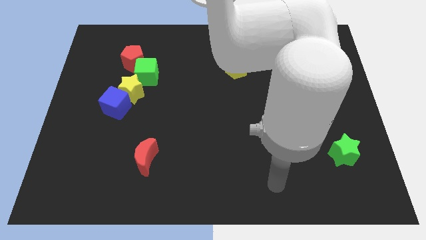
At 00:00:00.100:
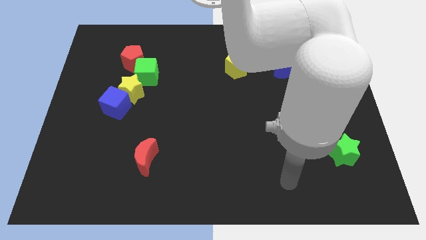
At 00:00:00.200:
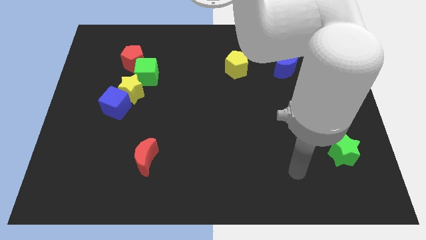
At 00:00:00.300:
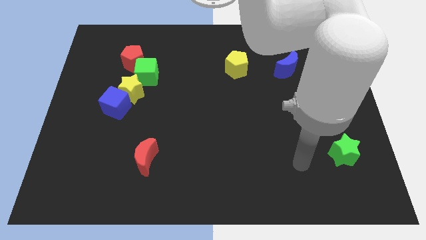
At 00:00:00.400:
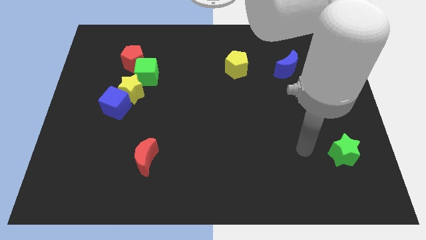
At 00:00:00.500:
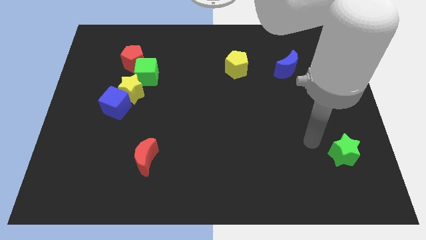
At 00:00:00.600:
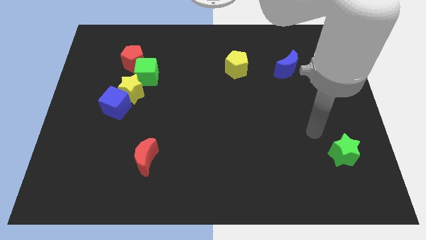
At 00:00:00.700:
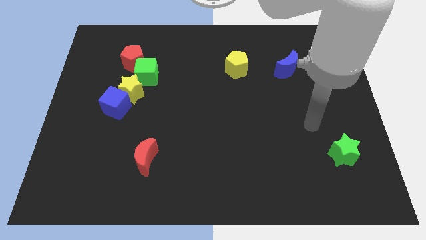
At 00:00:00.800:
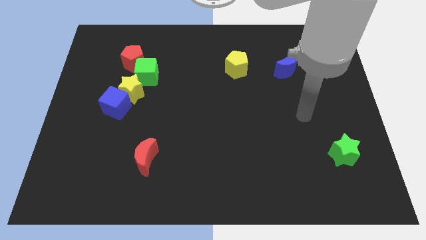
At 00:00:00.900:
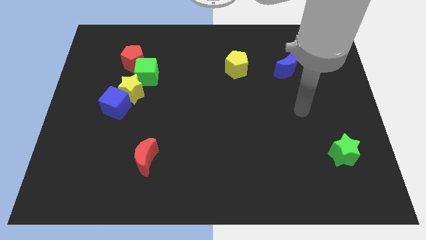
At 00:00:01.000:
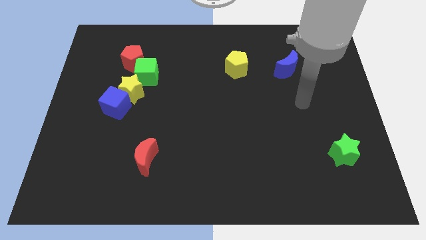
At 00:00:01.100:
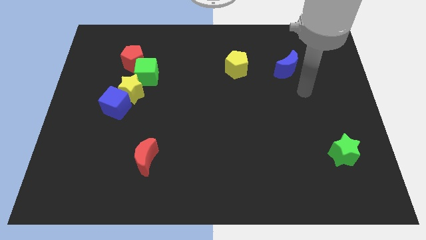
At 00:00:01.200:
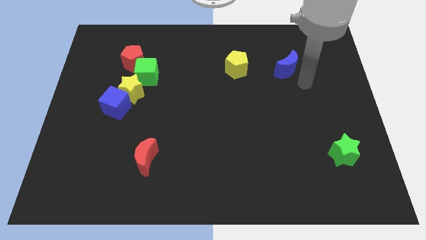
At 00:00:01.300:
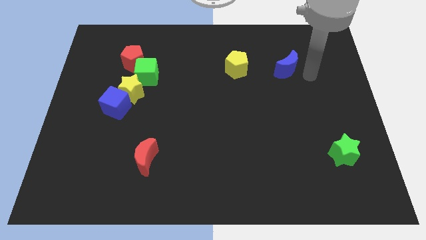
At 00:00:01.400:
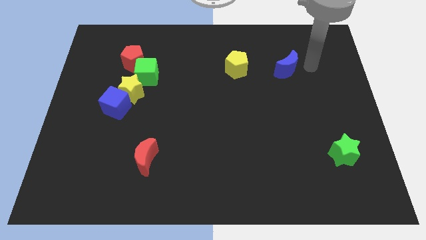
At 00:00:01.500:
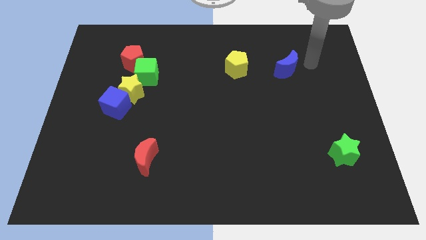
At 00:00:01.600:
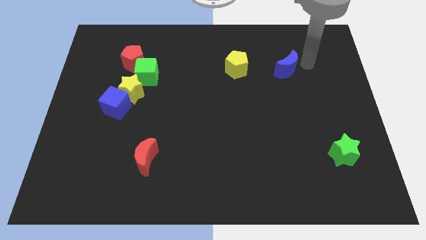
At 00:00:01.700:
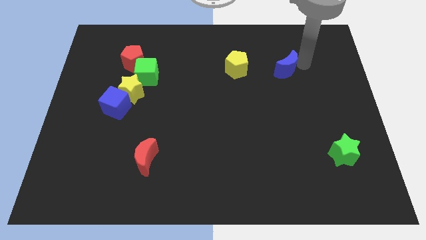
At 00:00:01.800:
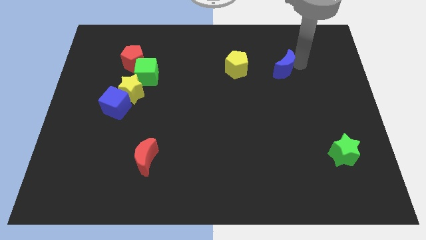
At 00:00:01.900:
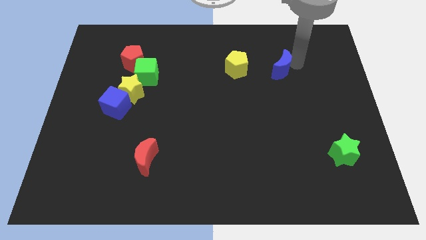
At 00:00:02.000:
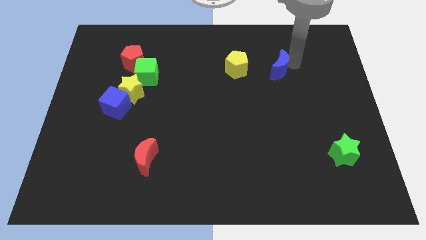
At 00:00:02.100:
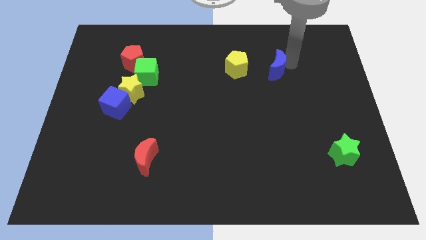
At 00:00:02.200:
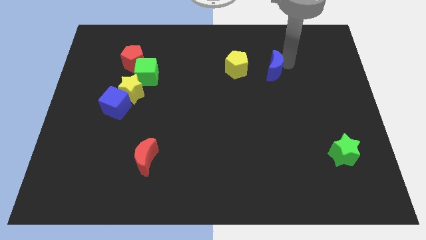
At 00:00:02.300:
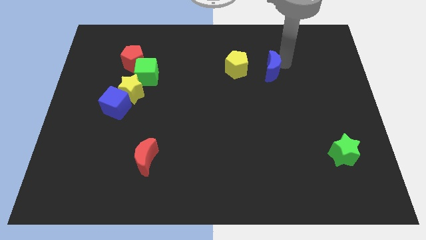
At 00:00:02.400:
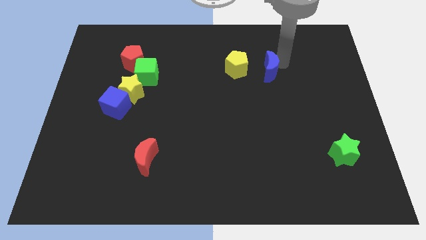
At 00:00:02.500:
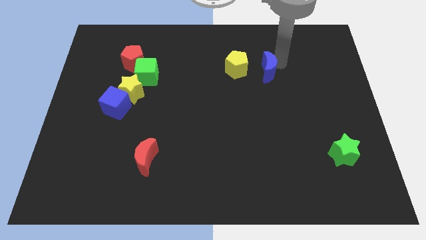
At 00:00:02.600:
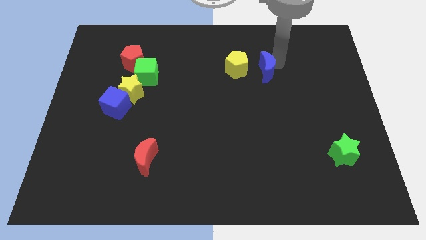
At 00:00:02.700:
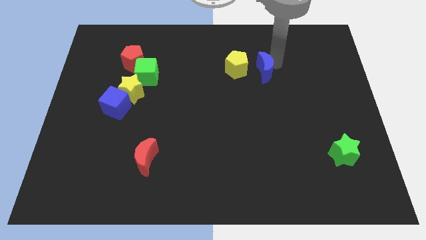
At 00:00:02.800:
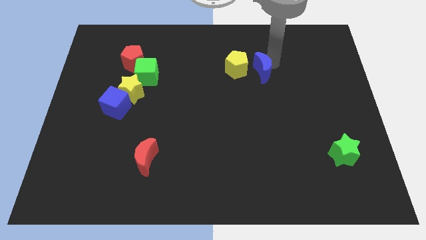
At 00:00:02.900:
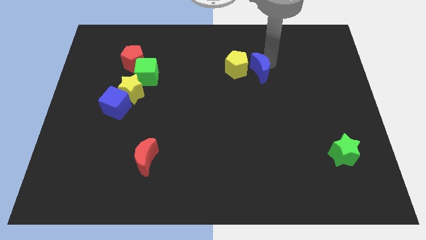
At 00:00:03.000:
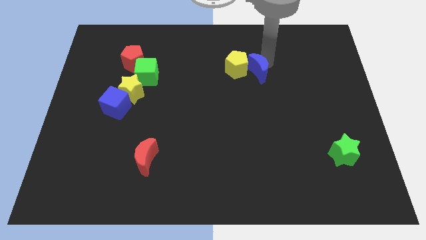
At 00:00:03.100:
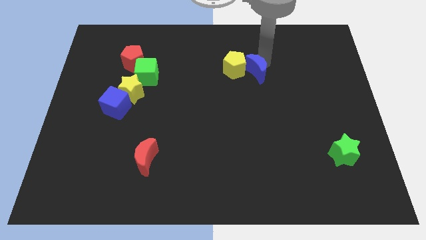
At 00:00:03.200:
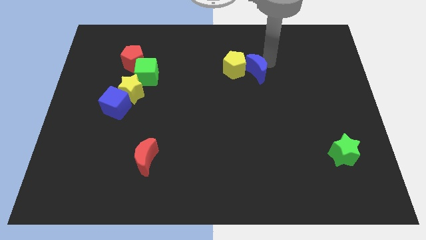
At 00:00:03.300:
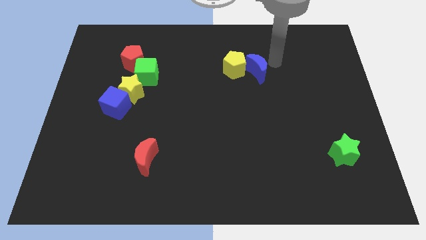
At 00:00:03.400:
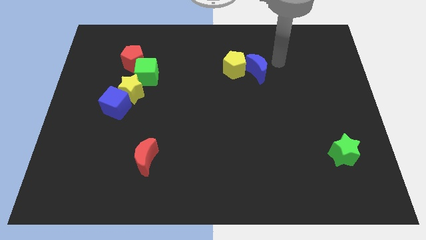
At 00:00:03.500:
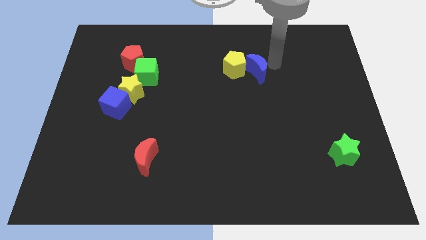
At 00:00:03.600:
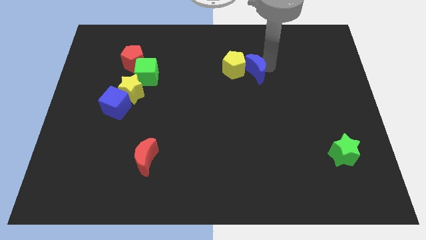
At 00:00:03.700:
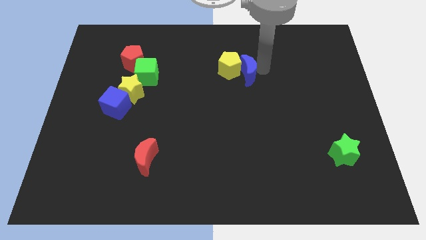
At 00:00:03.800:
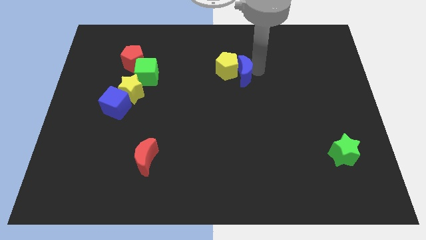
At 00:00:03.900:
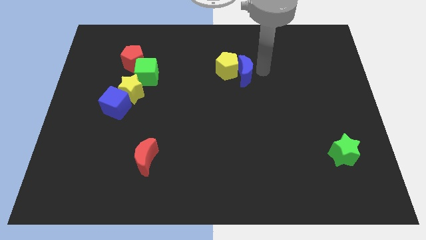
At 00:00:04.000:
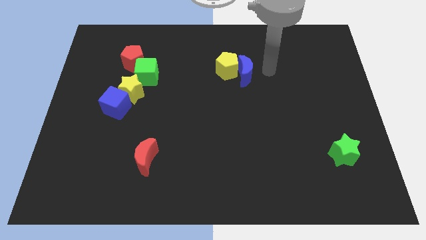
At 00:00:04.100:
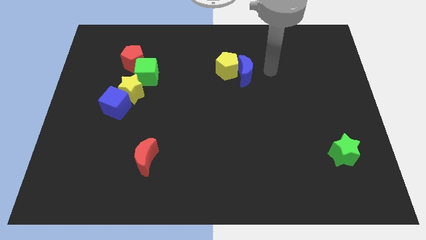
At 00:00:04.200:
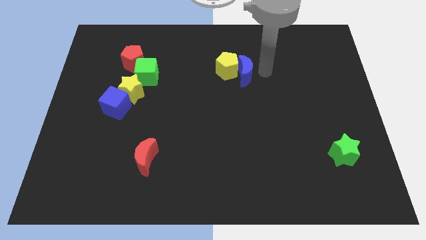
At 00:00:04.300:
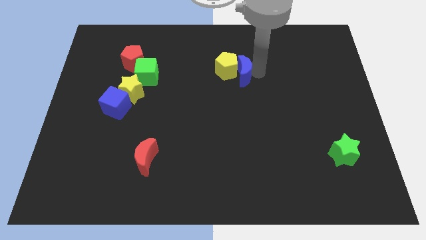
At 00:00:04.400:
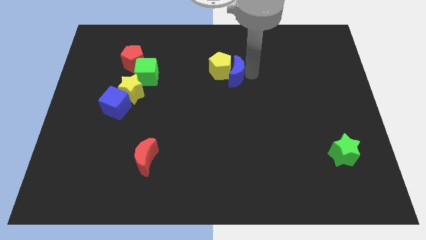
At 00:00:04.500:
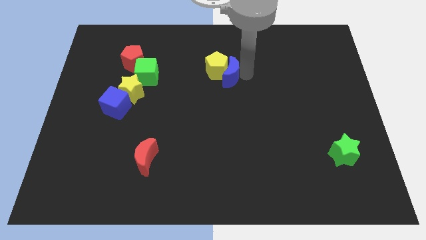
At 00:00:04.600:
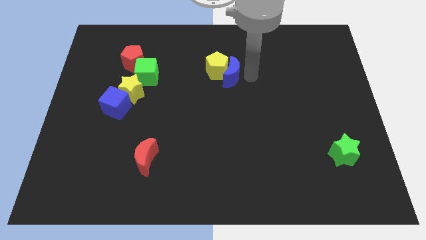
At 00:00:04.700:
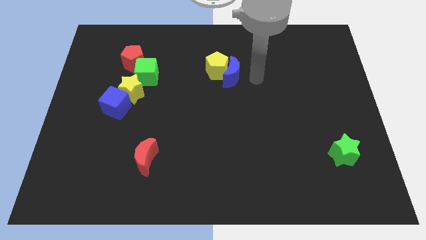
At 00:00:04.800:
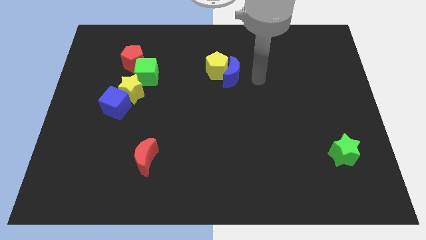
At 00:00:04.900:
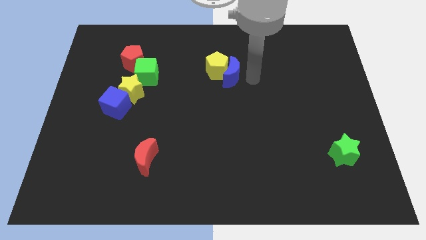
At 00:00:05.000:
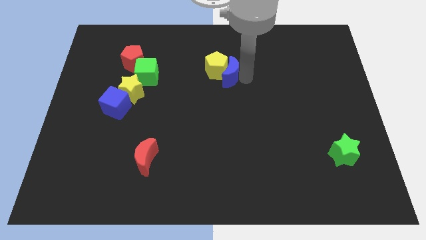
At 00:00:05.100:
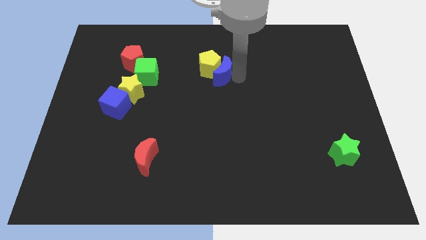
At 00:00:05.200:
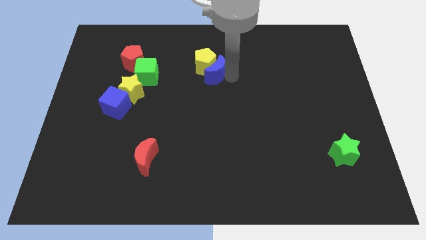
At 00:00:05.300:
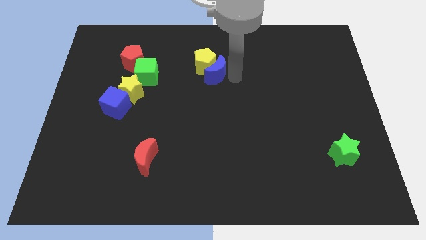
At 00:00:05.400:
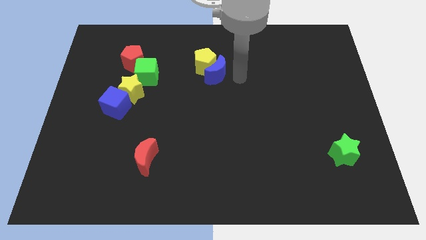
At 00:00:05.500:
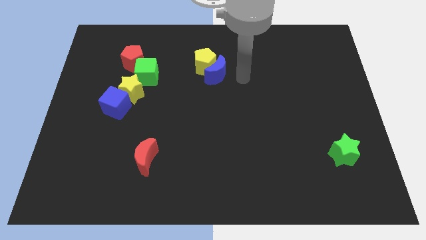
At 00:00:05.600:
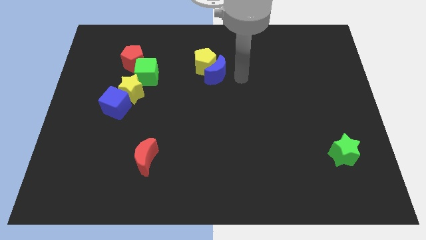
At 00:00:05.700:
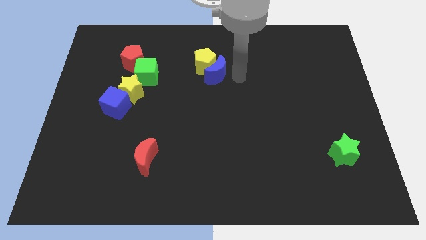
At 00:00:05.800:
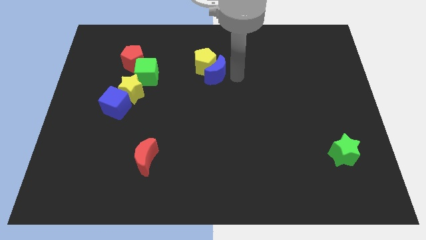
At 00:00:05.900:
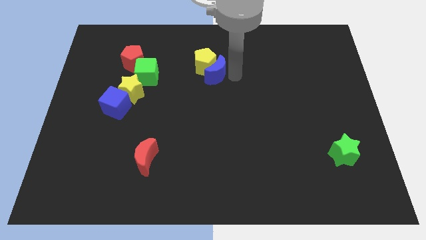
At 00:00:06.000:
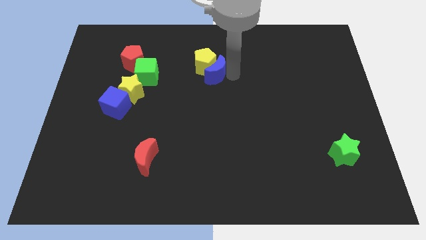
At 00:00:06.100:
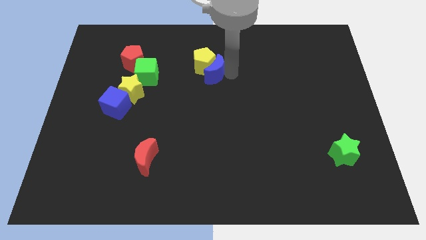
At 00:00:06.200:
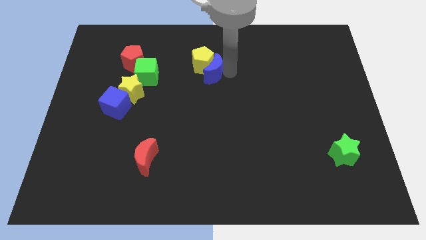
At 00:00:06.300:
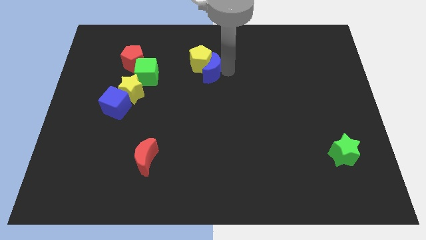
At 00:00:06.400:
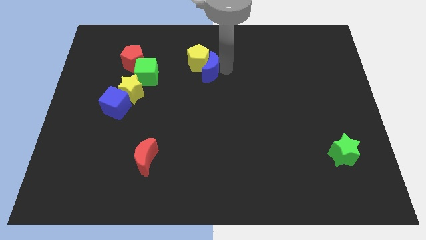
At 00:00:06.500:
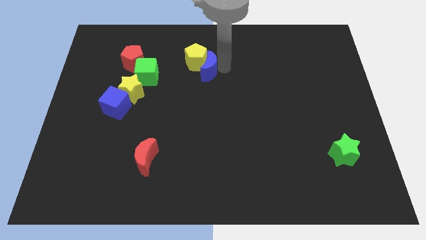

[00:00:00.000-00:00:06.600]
move the blue moon left

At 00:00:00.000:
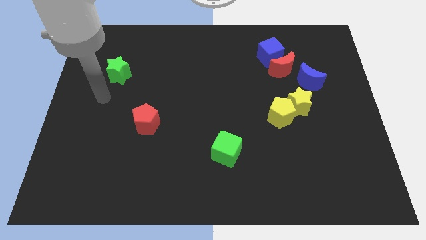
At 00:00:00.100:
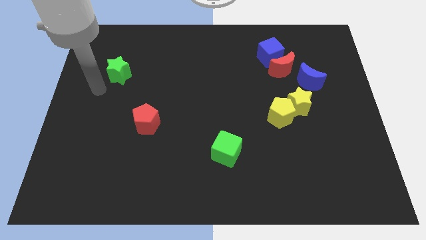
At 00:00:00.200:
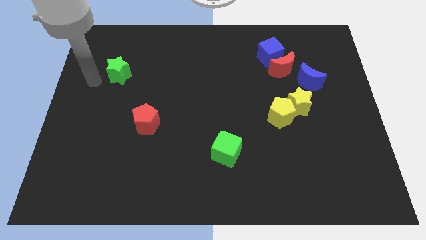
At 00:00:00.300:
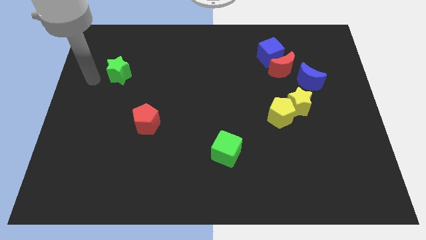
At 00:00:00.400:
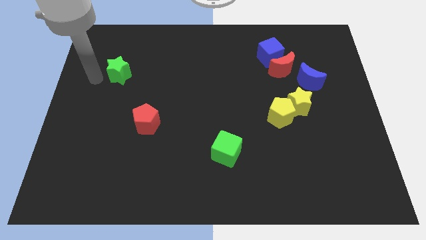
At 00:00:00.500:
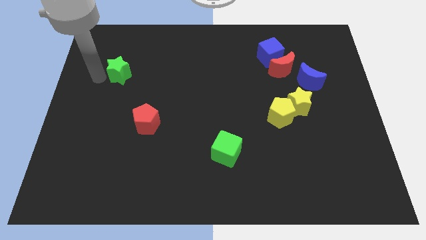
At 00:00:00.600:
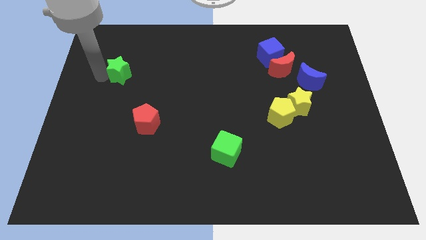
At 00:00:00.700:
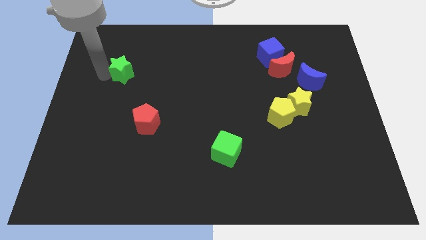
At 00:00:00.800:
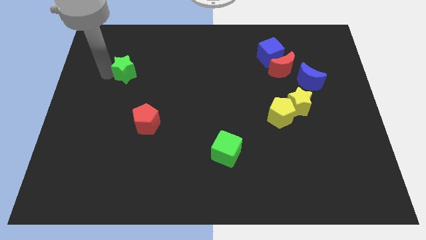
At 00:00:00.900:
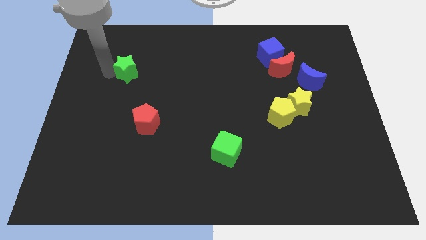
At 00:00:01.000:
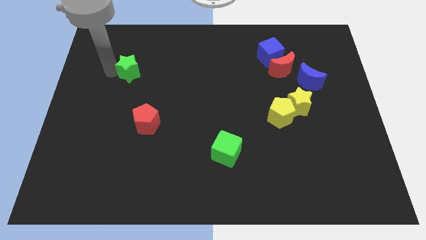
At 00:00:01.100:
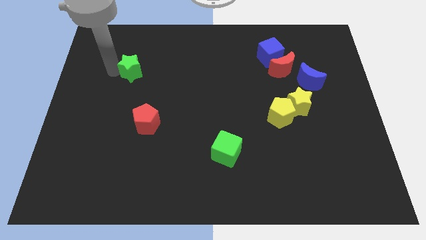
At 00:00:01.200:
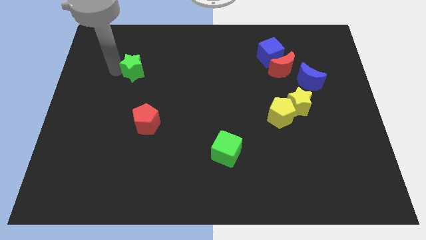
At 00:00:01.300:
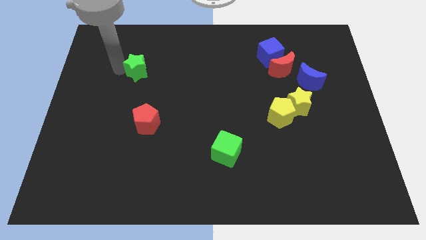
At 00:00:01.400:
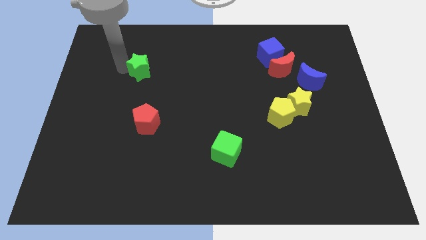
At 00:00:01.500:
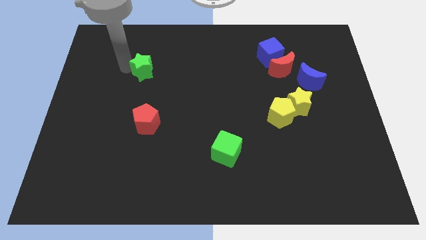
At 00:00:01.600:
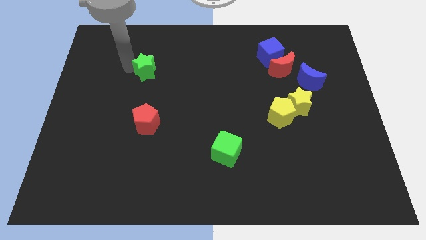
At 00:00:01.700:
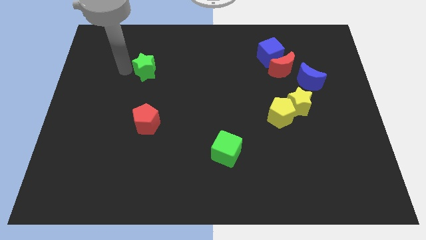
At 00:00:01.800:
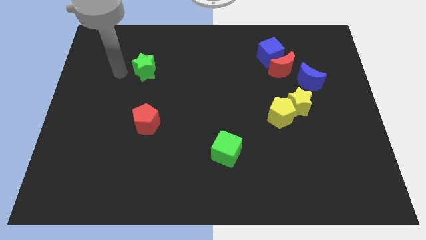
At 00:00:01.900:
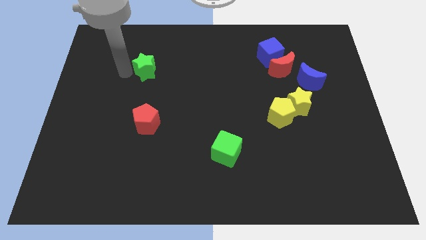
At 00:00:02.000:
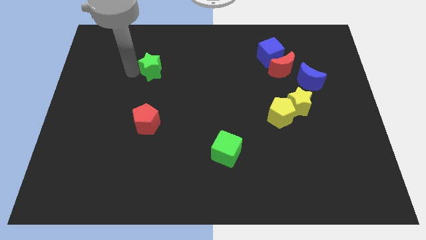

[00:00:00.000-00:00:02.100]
push the green star to the right a little
